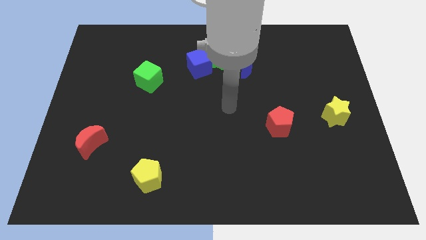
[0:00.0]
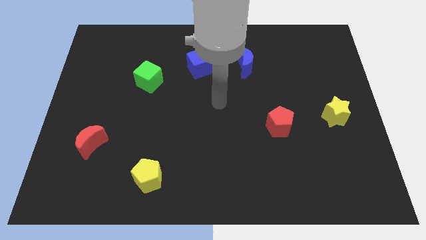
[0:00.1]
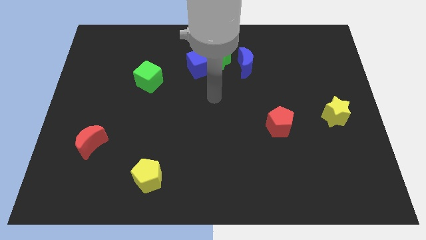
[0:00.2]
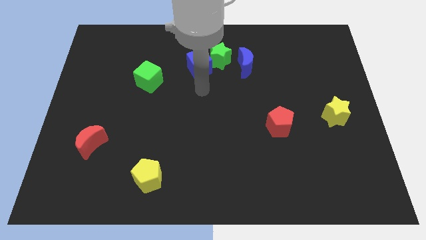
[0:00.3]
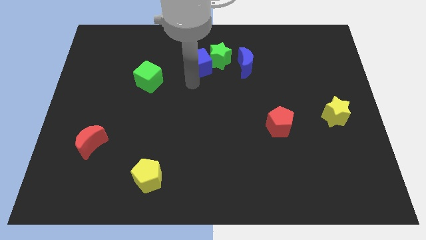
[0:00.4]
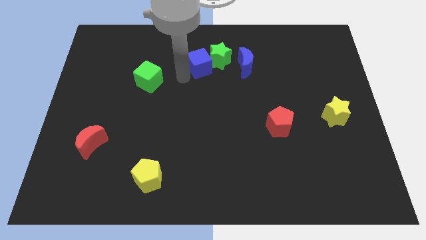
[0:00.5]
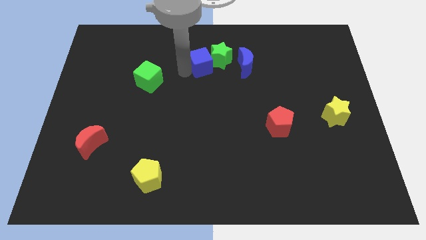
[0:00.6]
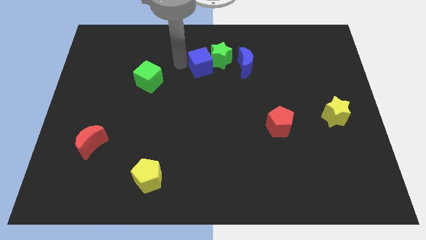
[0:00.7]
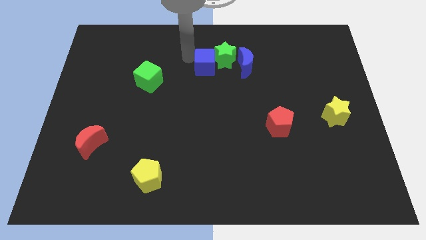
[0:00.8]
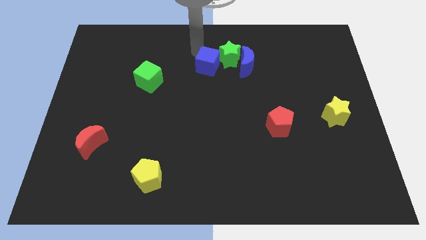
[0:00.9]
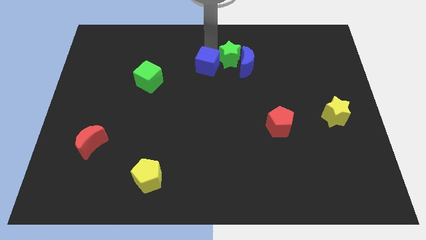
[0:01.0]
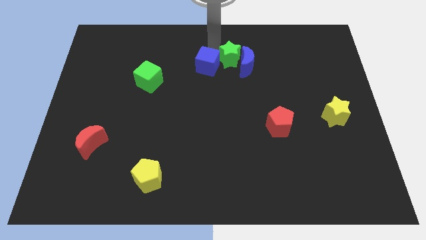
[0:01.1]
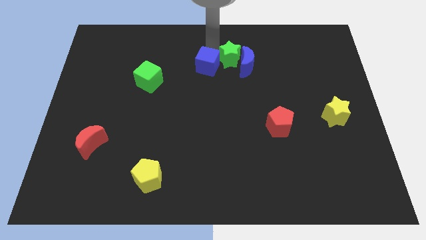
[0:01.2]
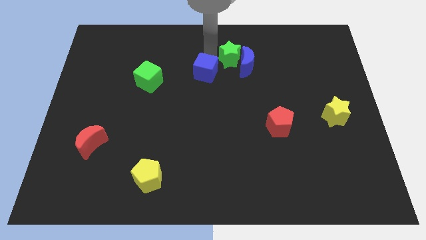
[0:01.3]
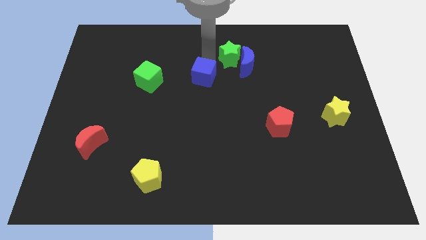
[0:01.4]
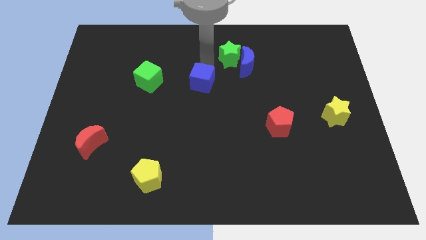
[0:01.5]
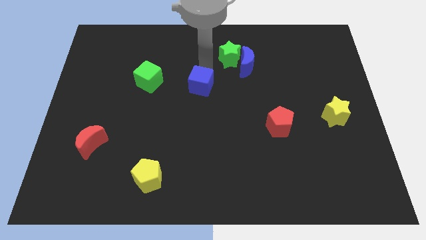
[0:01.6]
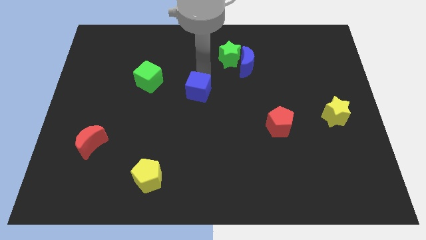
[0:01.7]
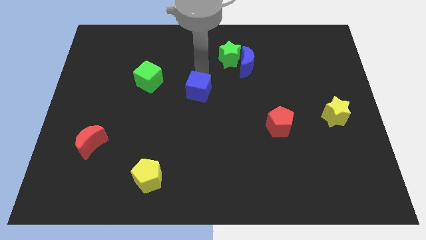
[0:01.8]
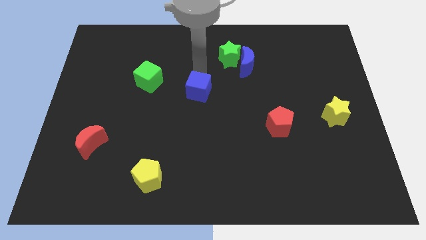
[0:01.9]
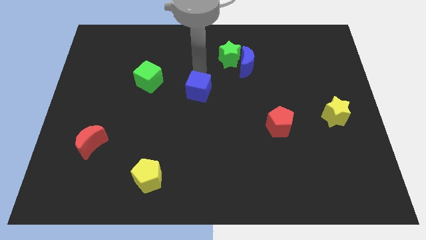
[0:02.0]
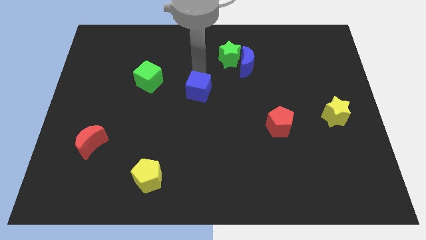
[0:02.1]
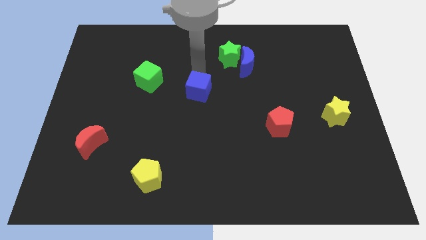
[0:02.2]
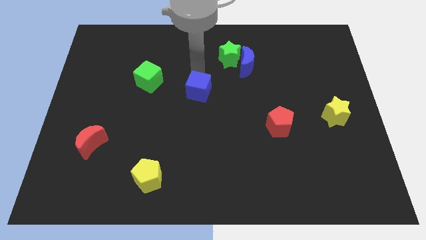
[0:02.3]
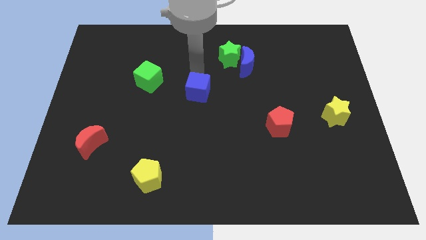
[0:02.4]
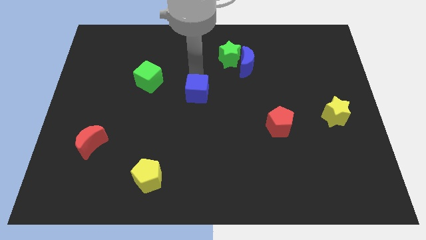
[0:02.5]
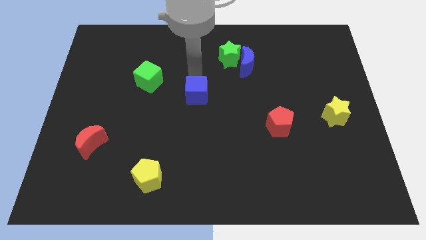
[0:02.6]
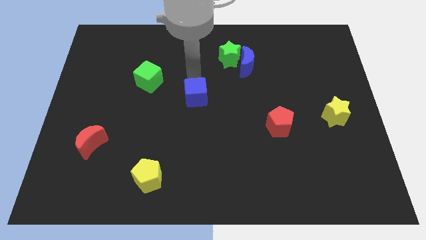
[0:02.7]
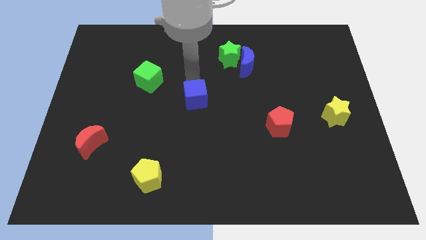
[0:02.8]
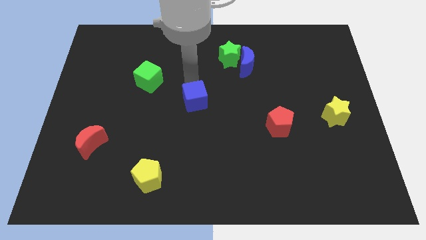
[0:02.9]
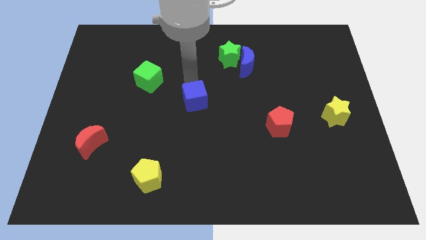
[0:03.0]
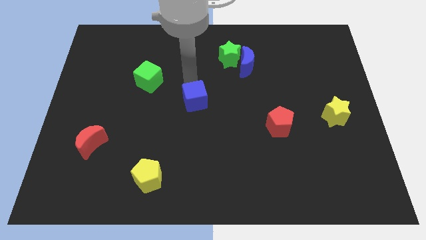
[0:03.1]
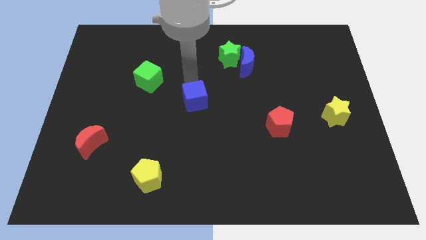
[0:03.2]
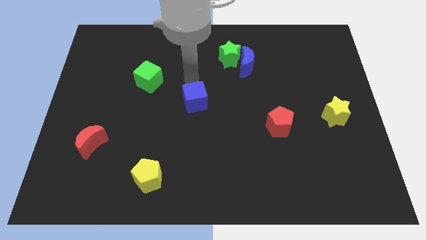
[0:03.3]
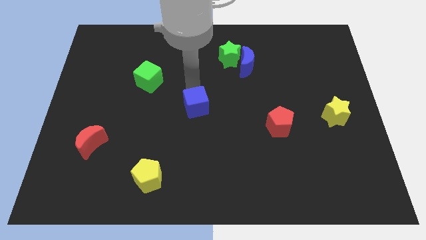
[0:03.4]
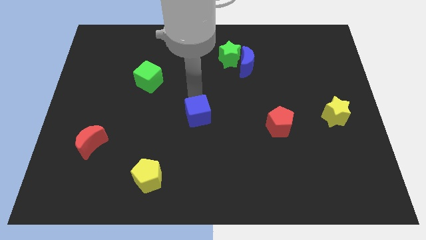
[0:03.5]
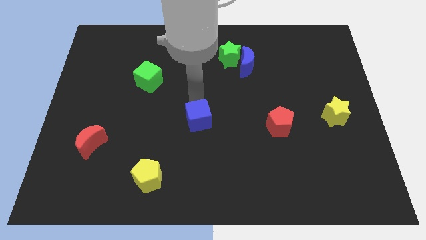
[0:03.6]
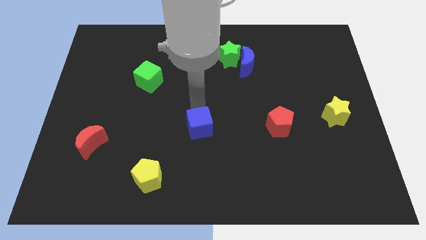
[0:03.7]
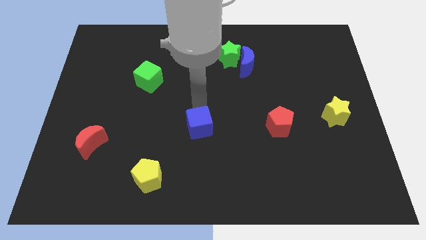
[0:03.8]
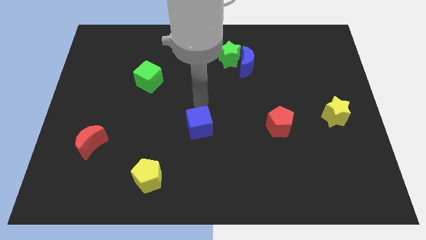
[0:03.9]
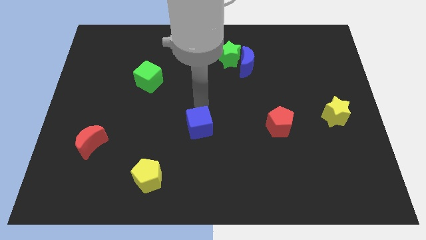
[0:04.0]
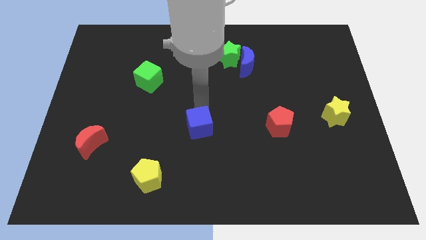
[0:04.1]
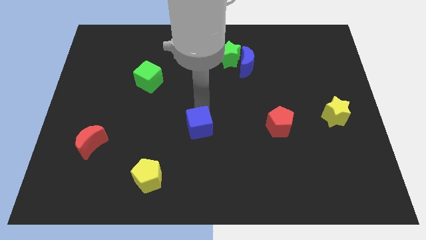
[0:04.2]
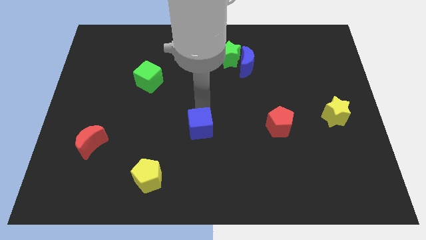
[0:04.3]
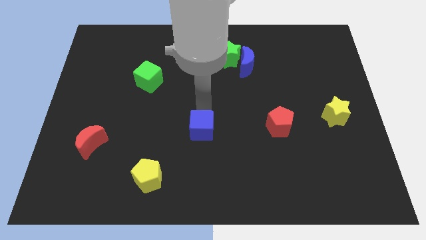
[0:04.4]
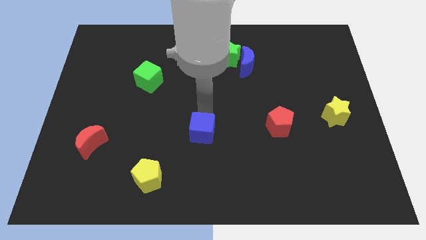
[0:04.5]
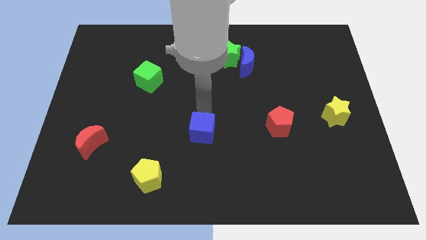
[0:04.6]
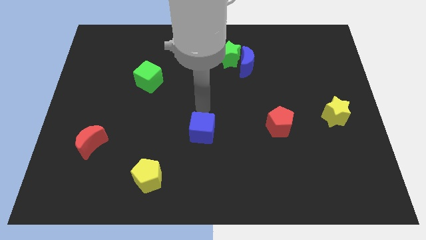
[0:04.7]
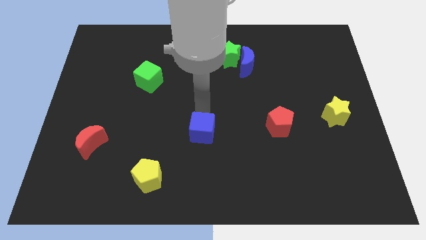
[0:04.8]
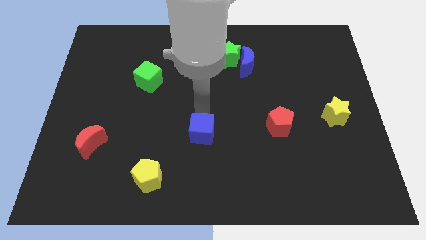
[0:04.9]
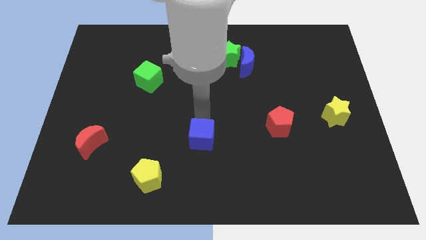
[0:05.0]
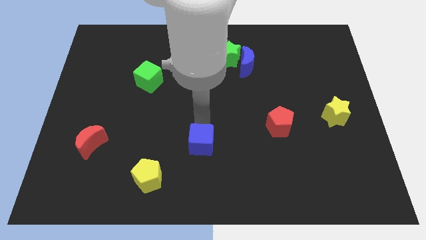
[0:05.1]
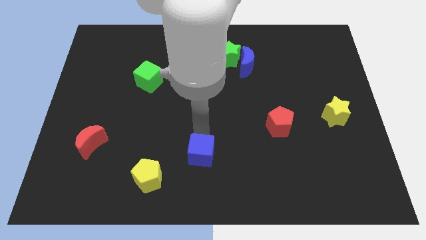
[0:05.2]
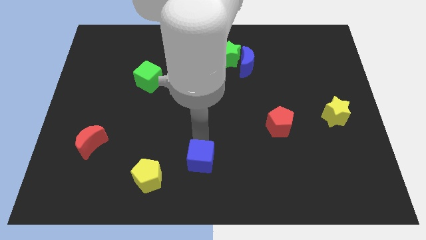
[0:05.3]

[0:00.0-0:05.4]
put the blue cube to the bottom side

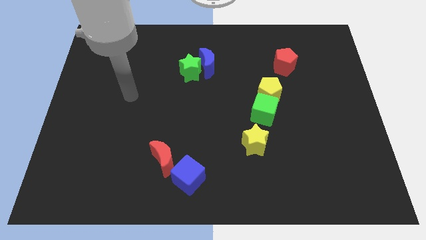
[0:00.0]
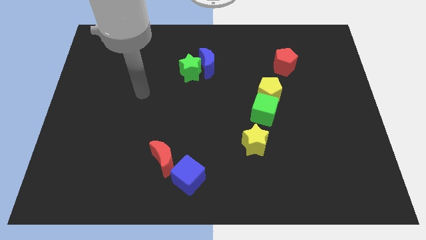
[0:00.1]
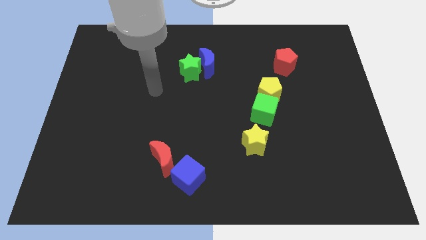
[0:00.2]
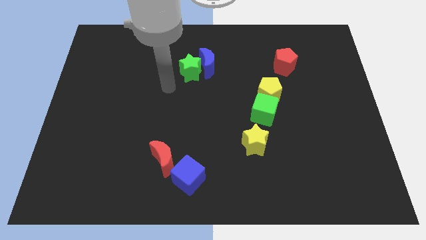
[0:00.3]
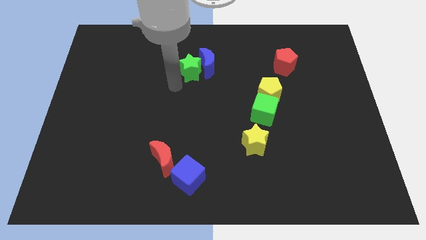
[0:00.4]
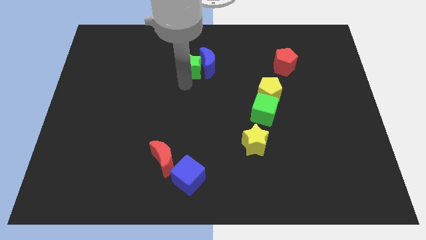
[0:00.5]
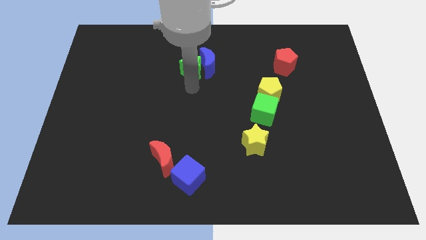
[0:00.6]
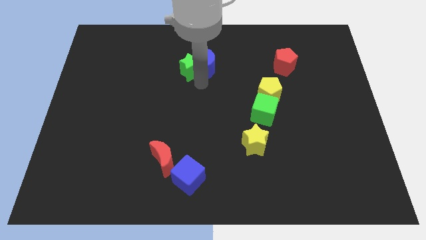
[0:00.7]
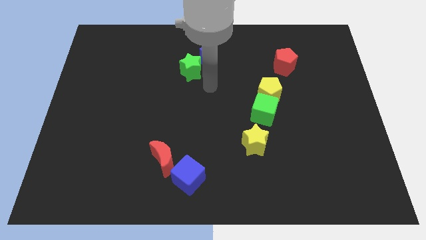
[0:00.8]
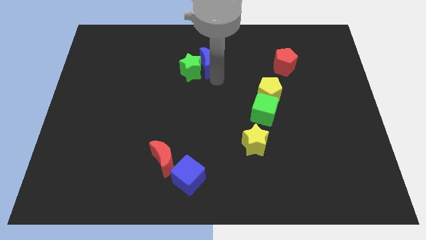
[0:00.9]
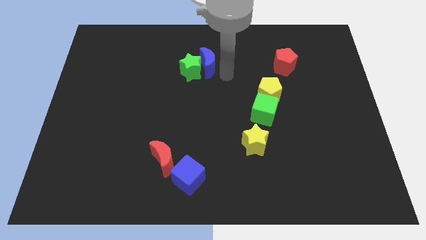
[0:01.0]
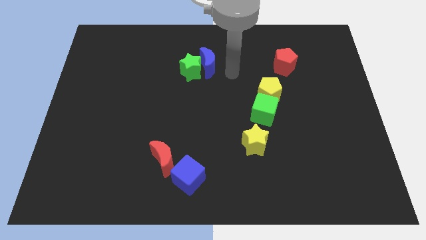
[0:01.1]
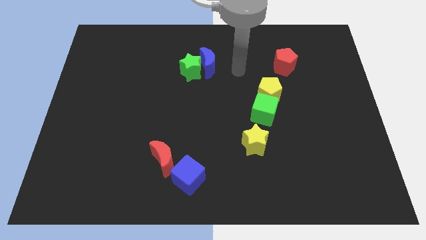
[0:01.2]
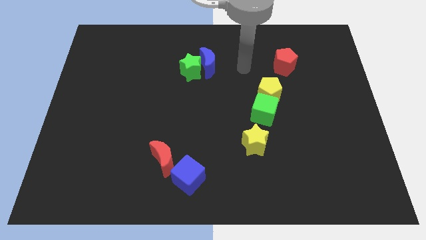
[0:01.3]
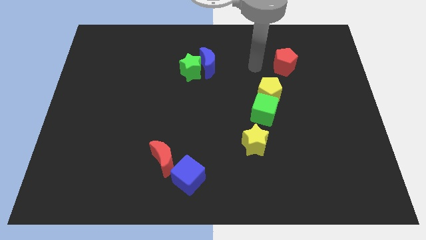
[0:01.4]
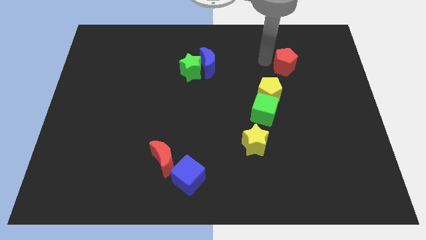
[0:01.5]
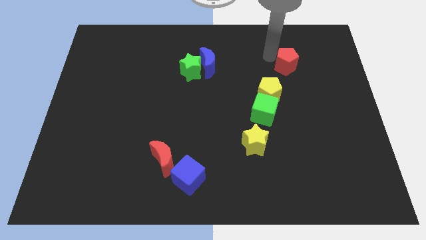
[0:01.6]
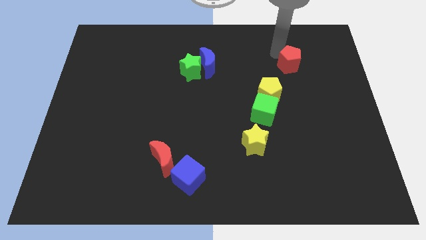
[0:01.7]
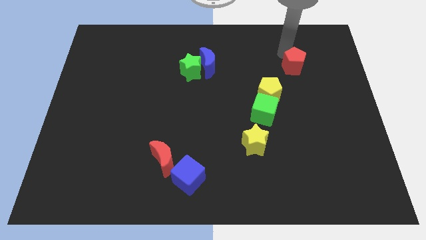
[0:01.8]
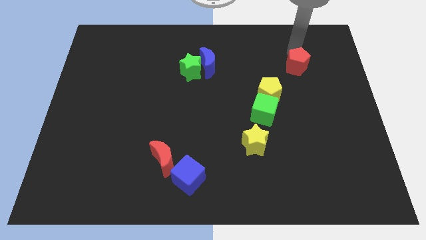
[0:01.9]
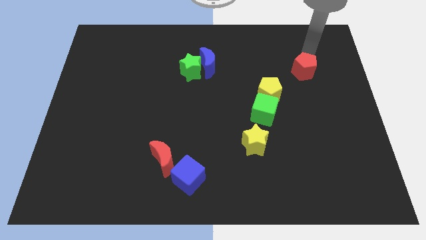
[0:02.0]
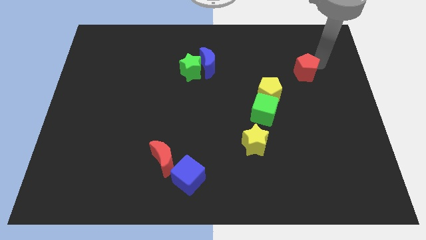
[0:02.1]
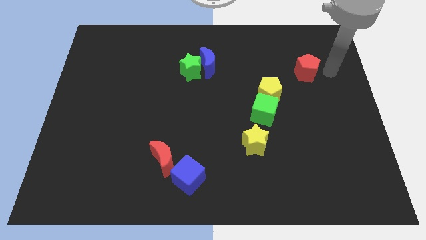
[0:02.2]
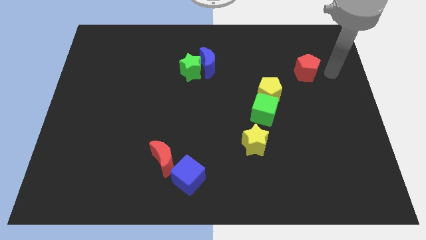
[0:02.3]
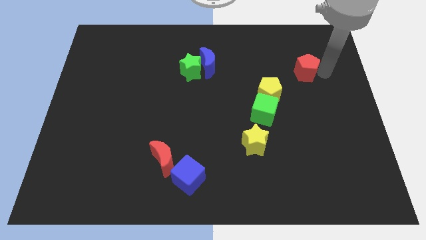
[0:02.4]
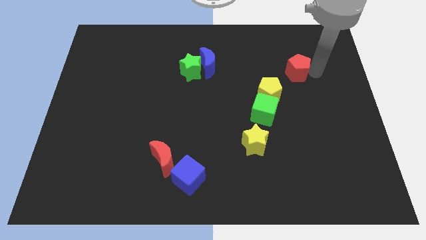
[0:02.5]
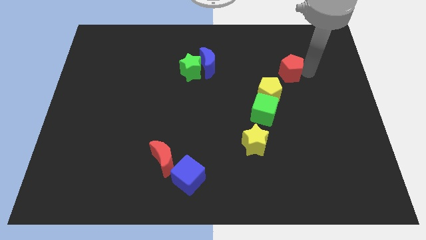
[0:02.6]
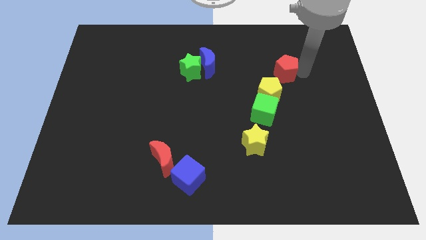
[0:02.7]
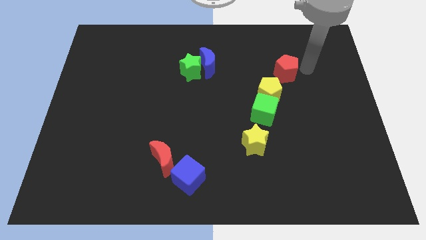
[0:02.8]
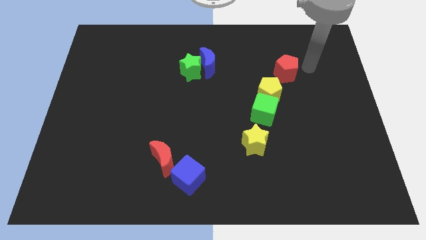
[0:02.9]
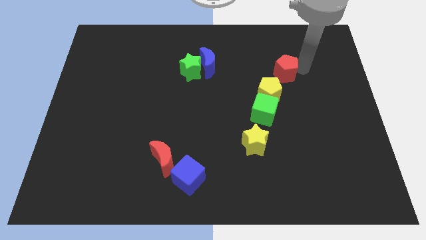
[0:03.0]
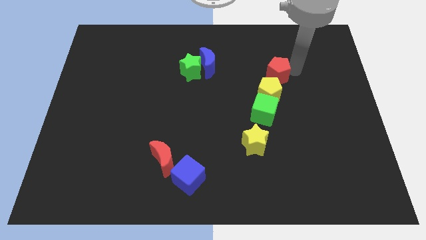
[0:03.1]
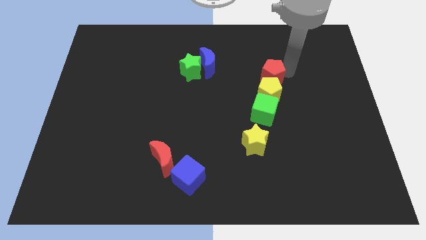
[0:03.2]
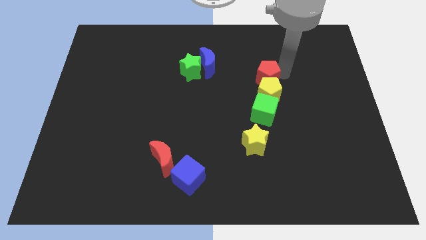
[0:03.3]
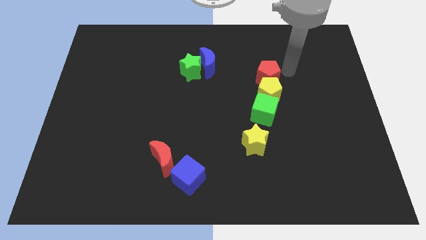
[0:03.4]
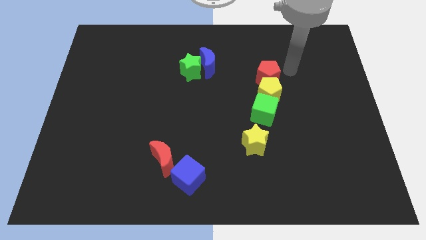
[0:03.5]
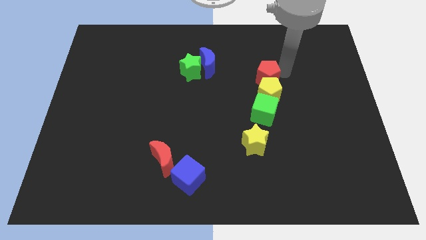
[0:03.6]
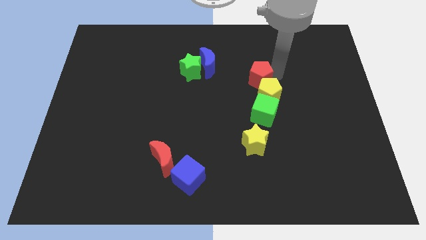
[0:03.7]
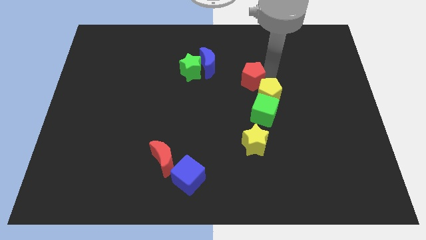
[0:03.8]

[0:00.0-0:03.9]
push the red pentagon to the middle
